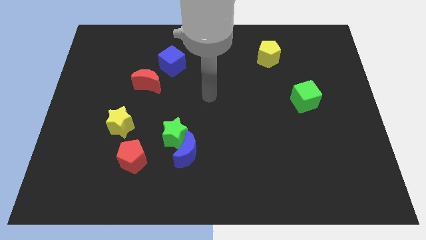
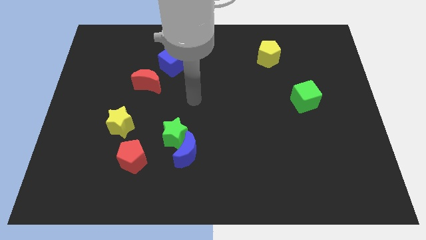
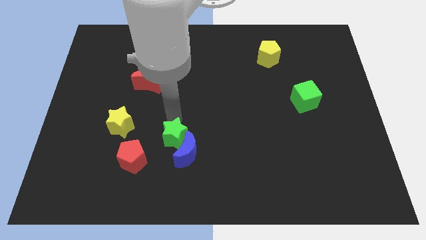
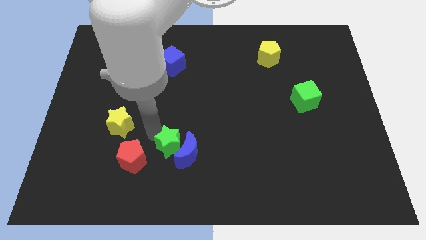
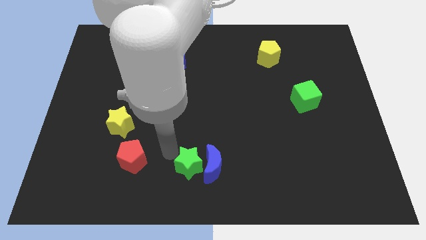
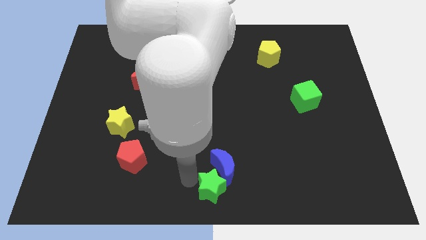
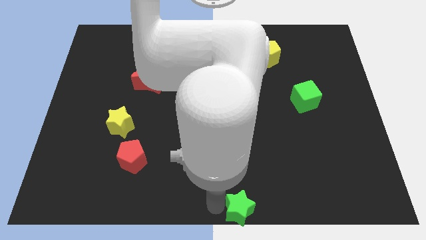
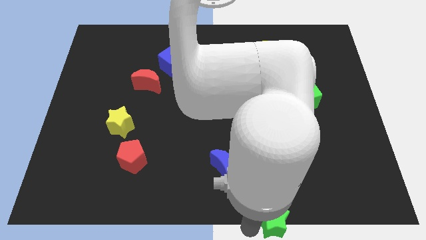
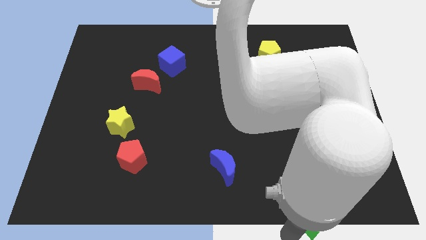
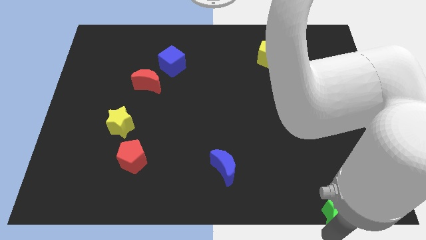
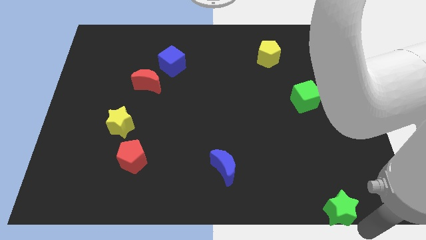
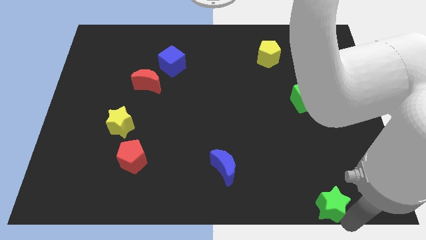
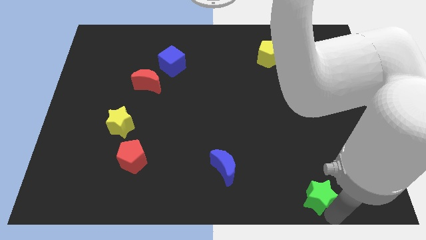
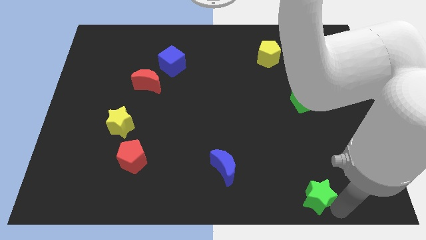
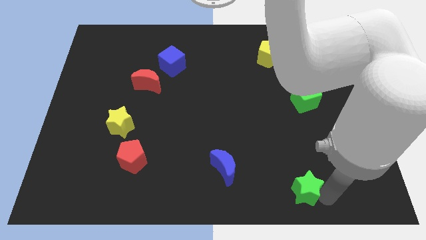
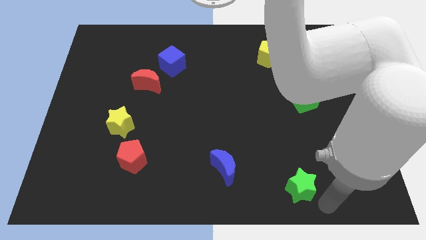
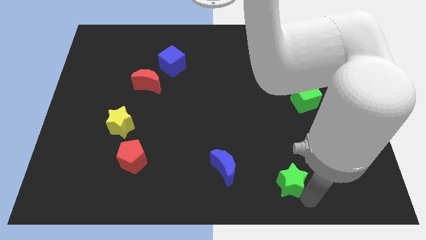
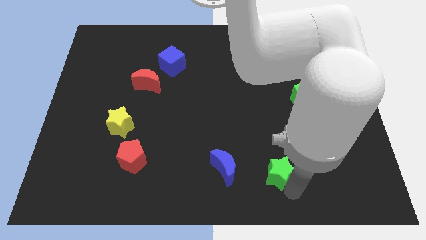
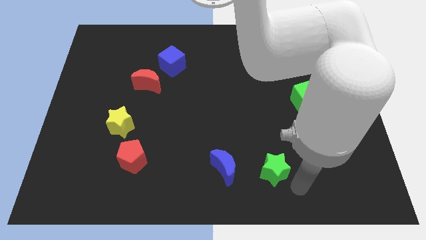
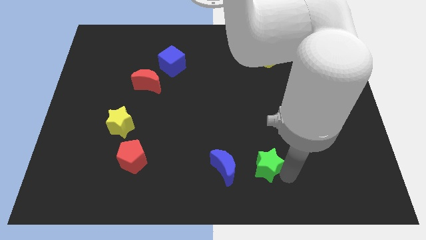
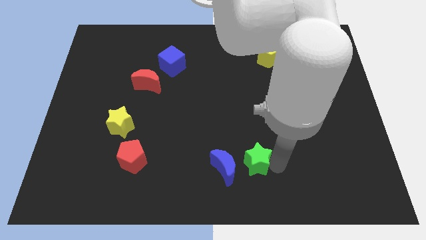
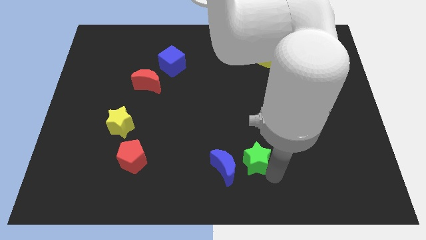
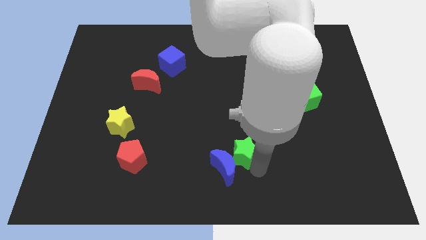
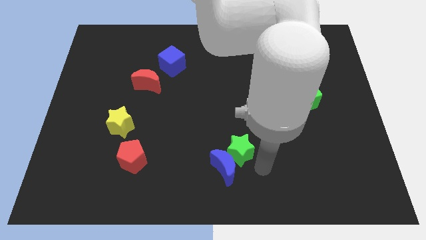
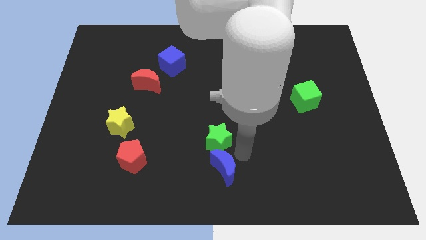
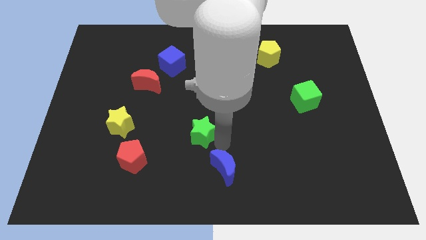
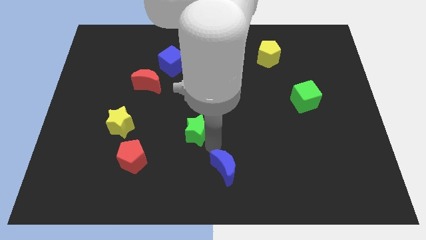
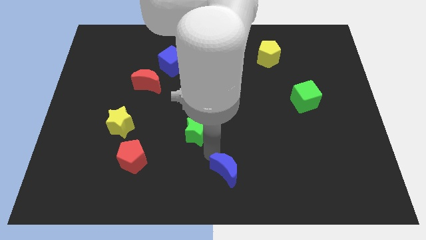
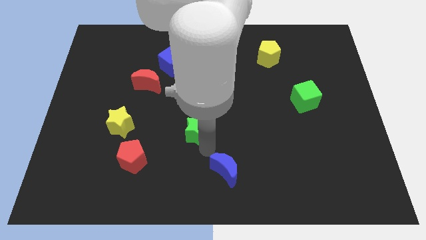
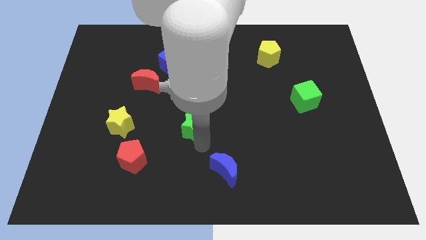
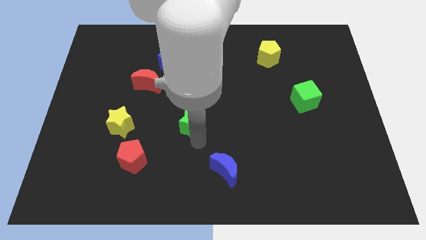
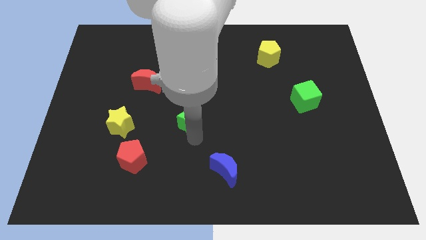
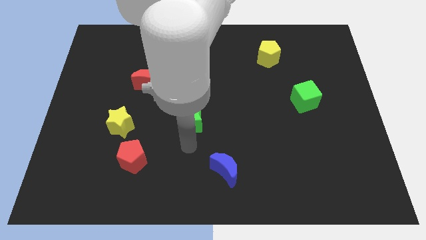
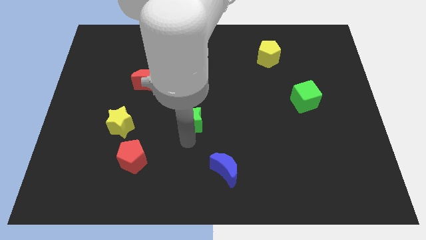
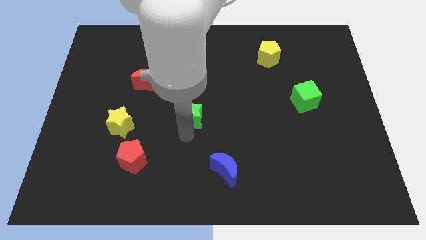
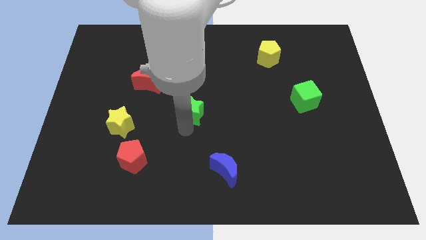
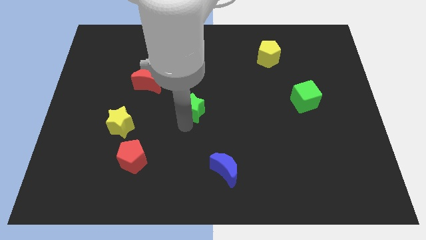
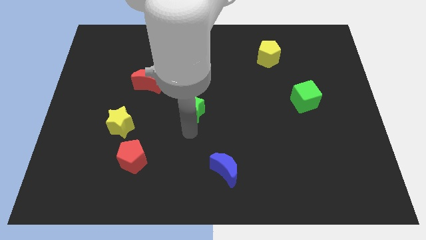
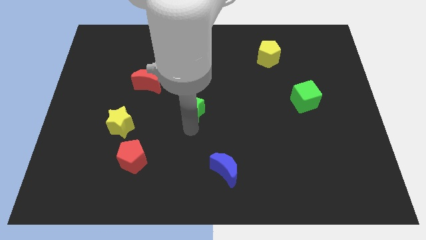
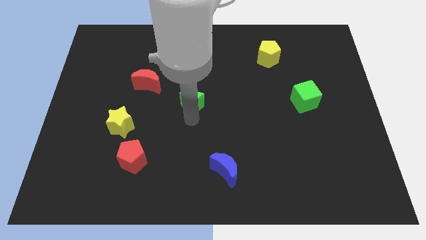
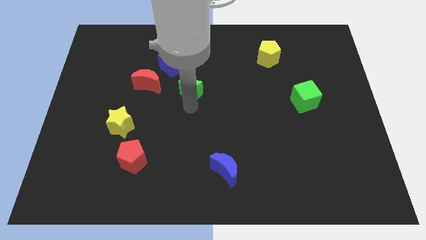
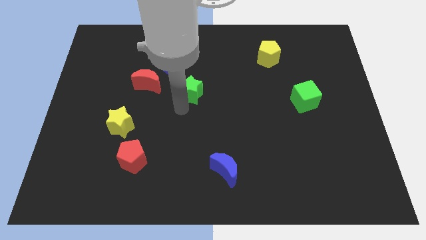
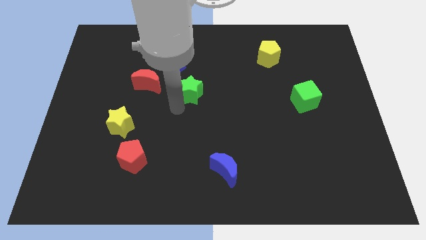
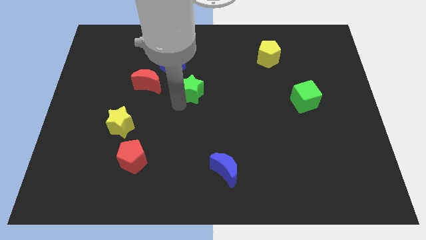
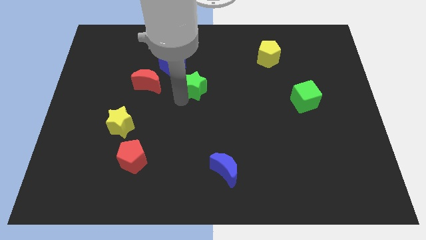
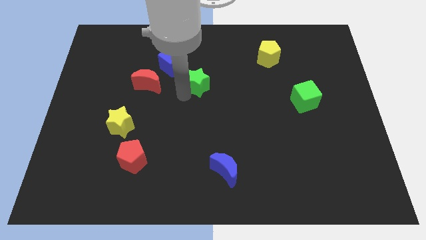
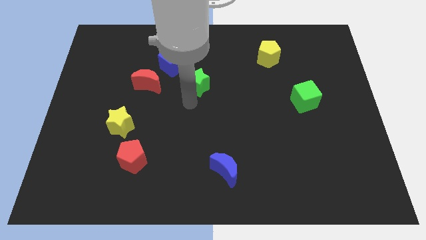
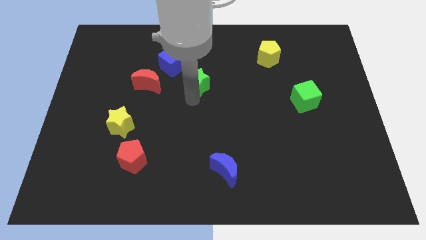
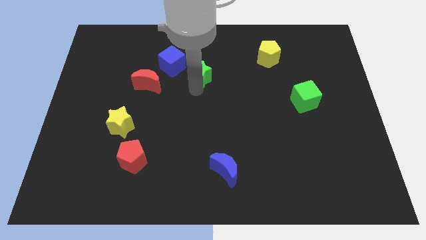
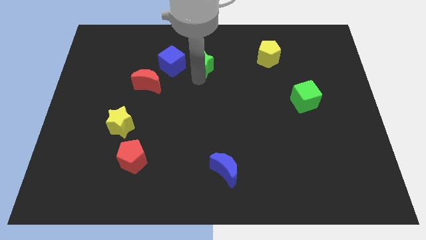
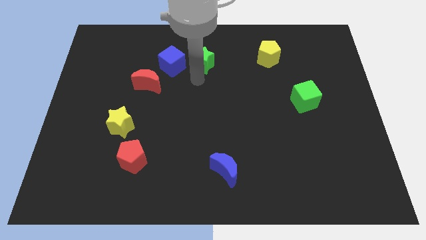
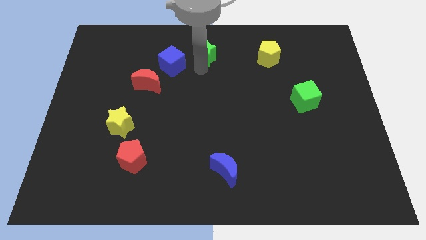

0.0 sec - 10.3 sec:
put the green star to the towards your base

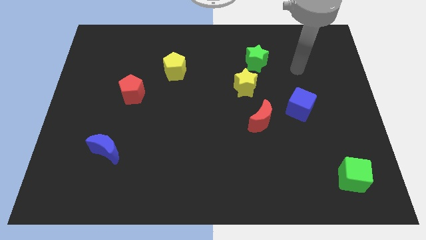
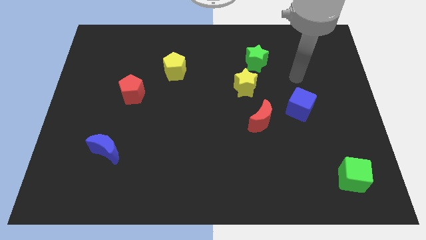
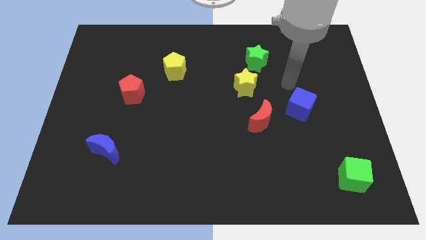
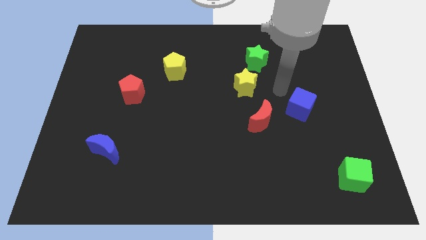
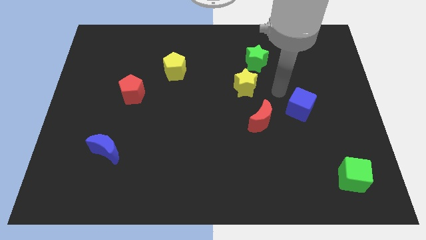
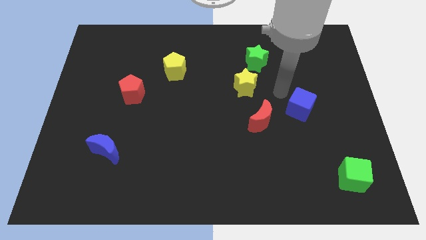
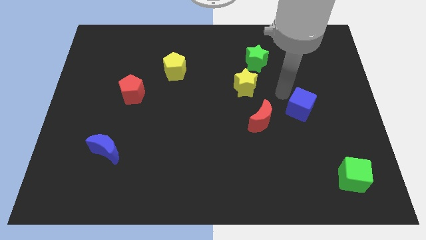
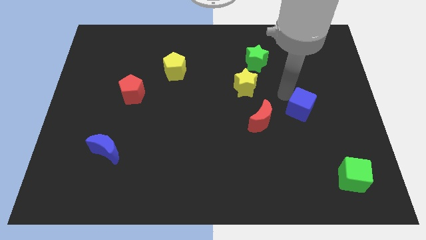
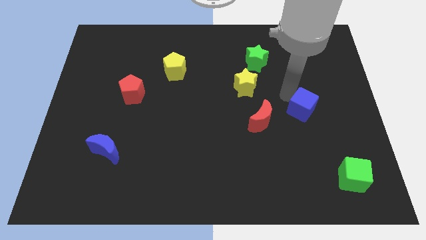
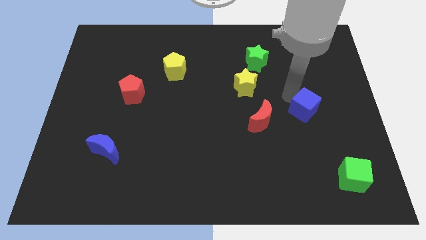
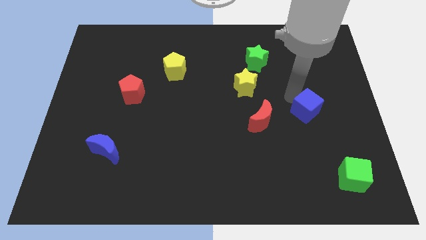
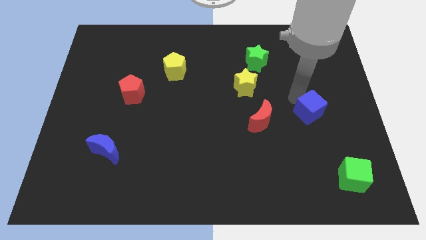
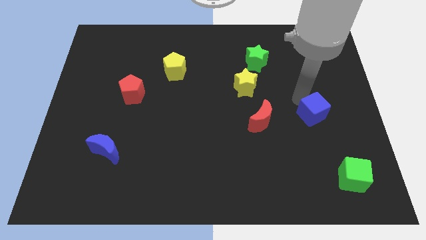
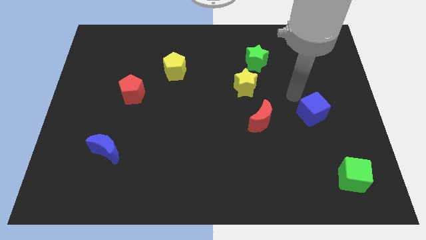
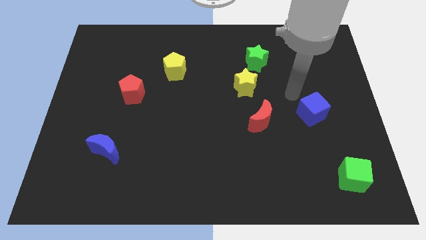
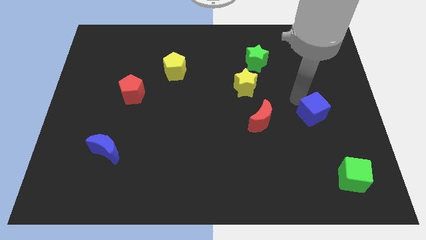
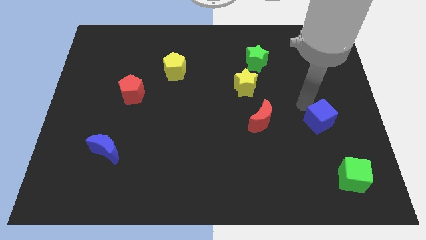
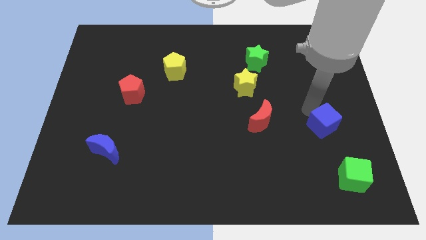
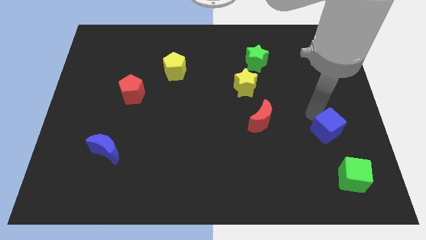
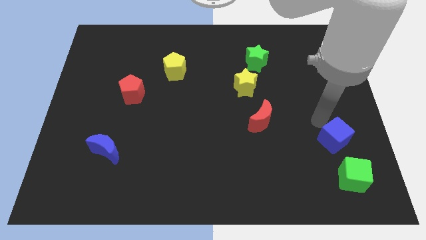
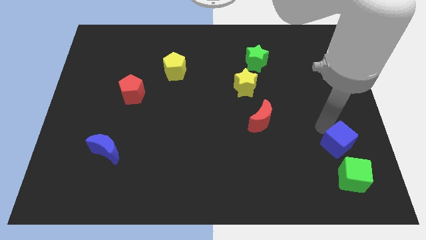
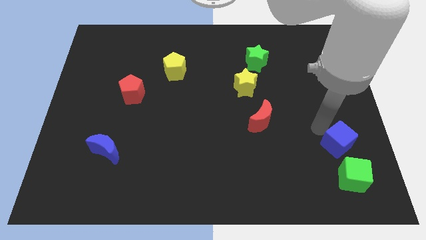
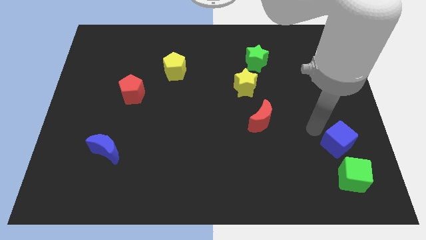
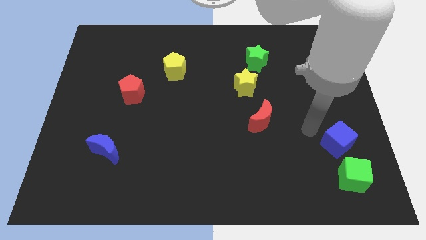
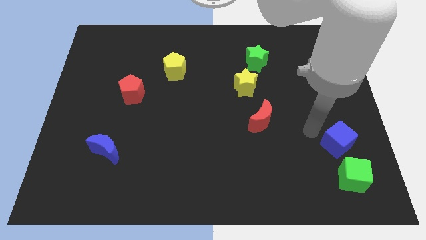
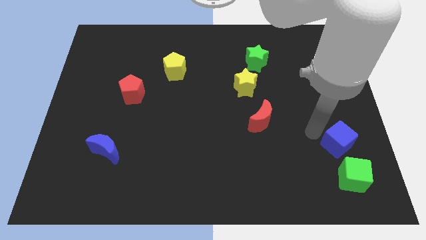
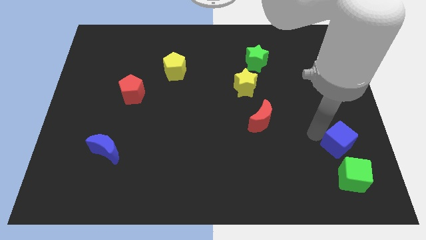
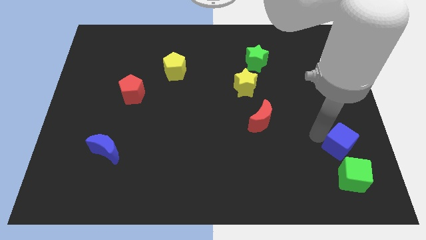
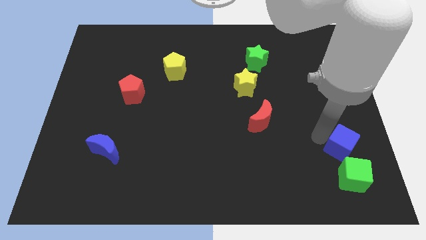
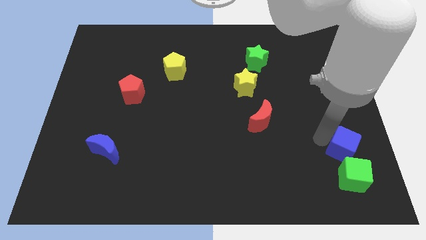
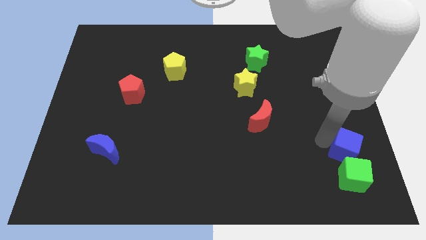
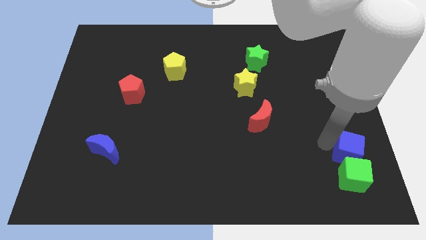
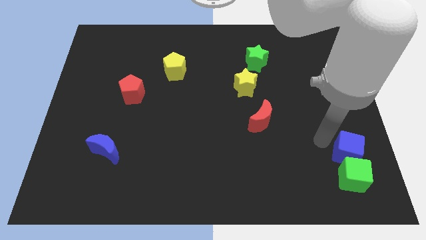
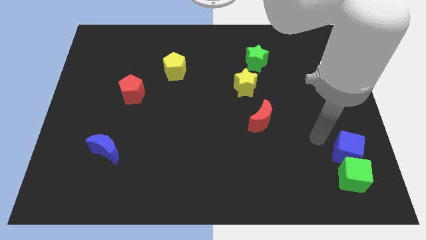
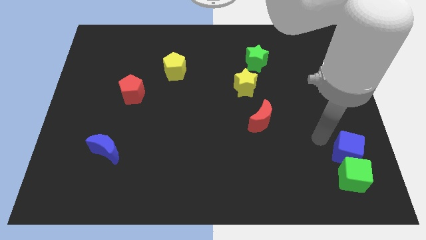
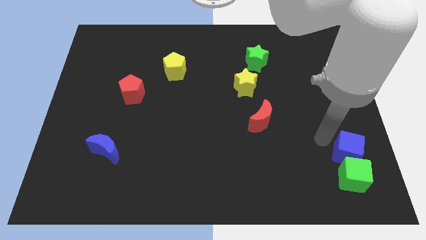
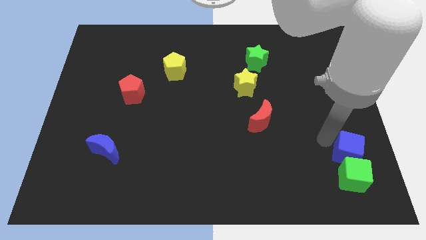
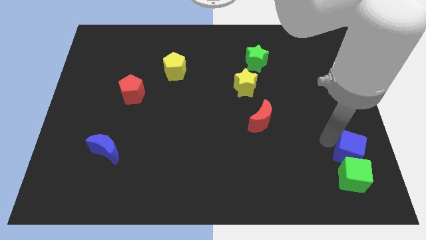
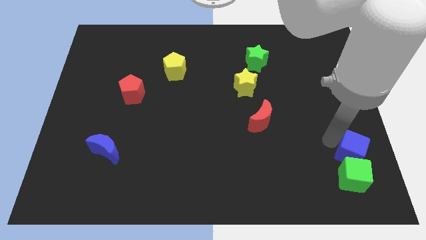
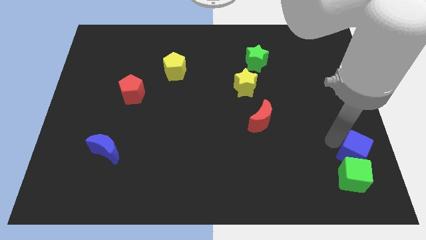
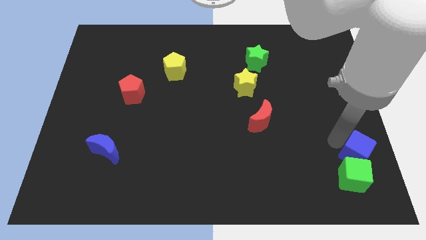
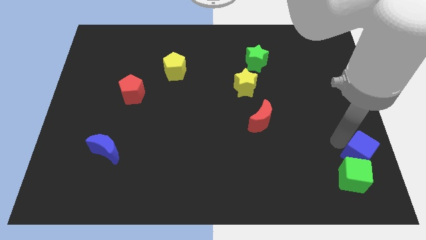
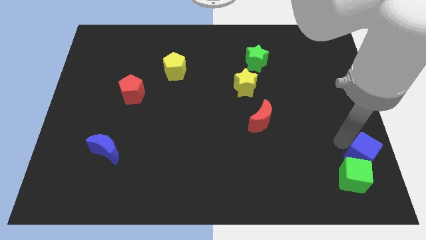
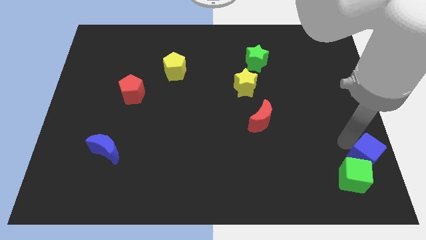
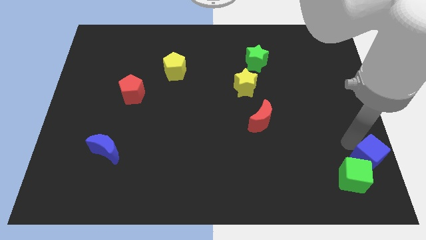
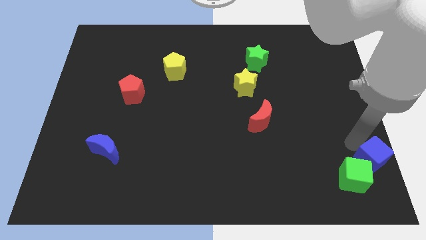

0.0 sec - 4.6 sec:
move the blue cube to the bottom right corner
